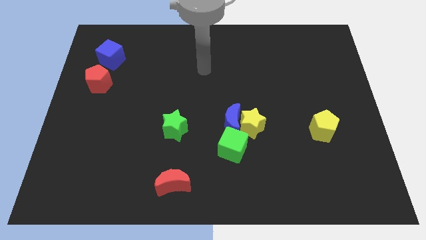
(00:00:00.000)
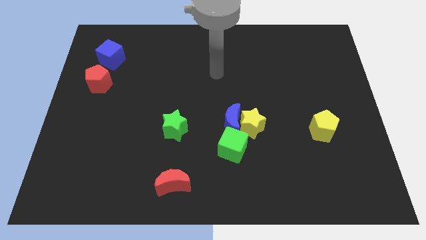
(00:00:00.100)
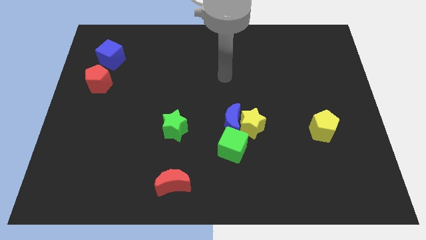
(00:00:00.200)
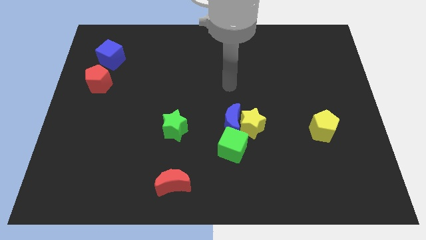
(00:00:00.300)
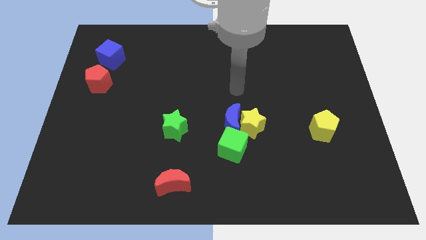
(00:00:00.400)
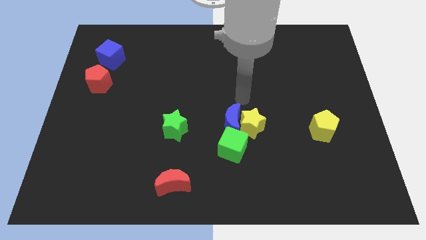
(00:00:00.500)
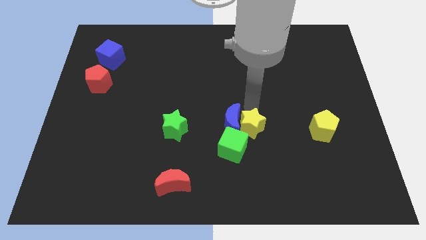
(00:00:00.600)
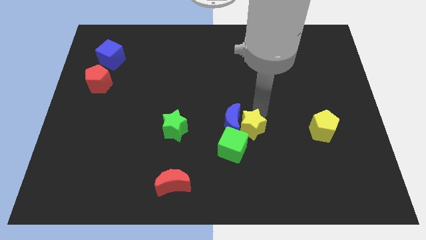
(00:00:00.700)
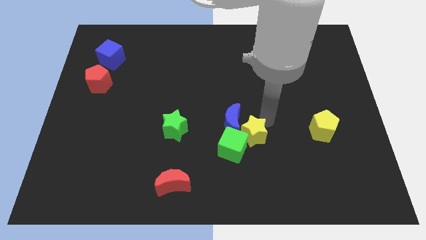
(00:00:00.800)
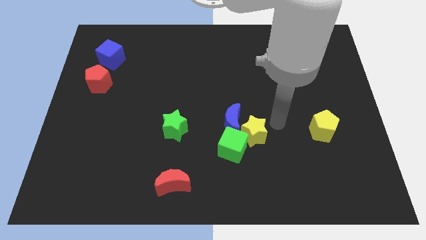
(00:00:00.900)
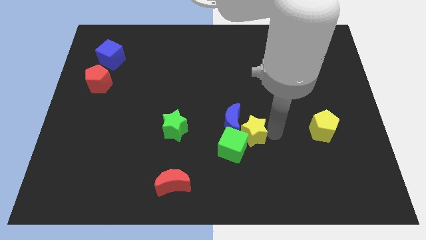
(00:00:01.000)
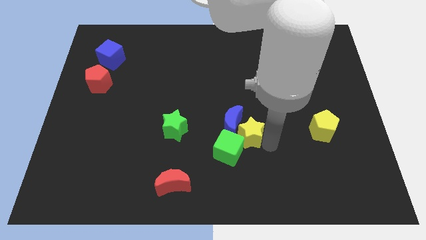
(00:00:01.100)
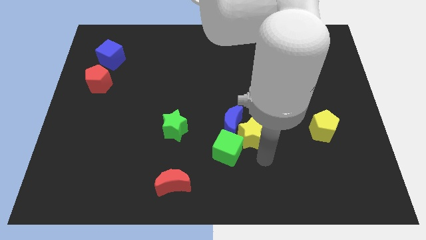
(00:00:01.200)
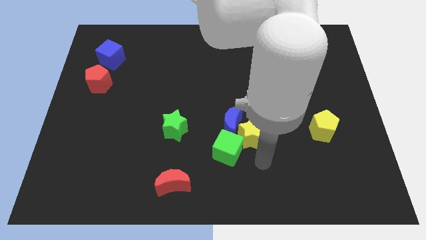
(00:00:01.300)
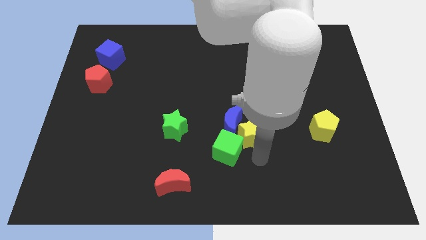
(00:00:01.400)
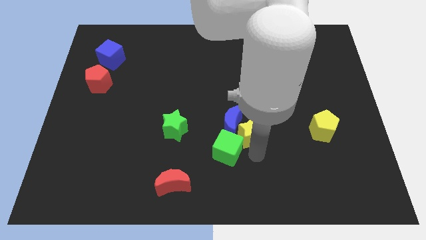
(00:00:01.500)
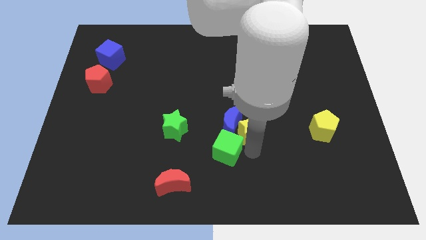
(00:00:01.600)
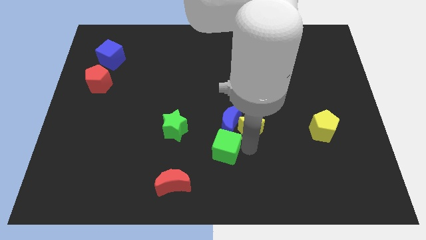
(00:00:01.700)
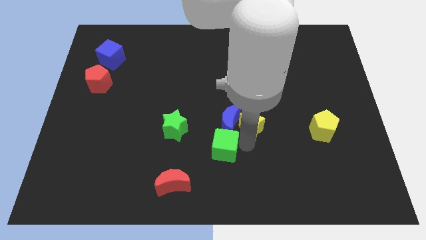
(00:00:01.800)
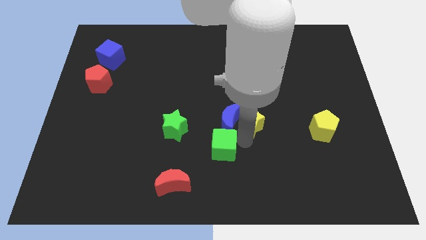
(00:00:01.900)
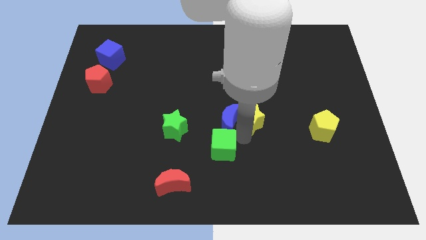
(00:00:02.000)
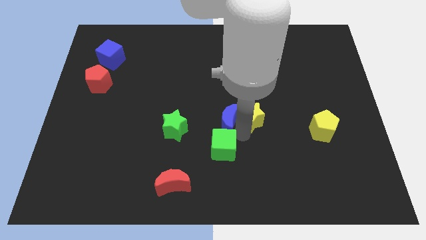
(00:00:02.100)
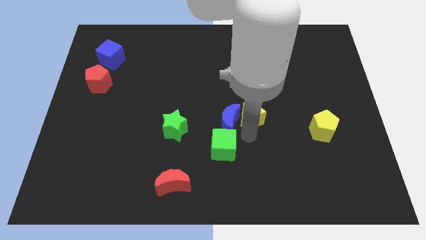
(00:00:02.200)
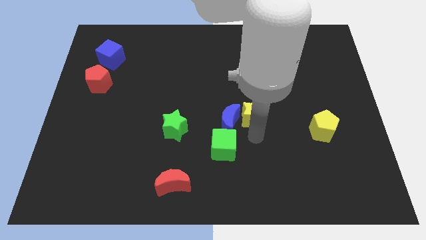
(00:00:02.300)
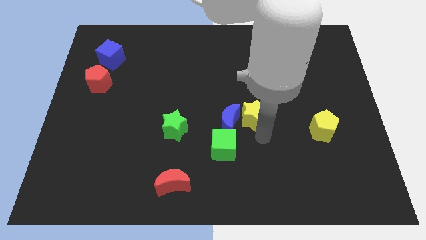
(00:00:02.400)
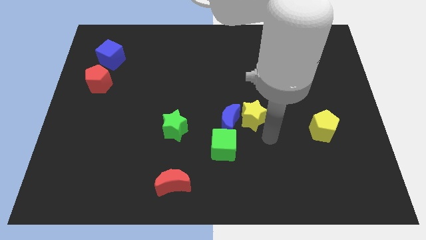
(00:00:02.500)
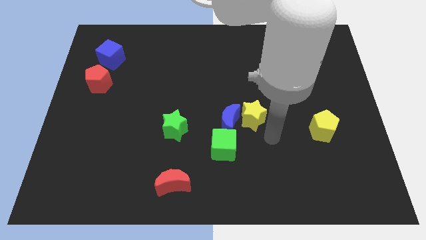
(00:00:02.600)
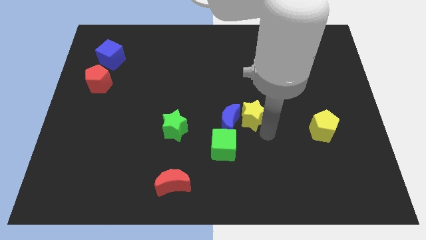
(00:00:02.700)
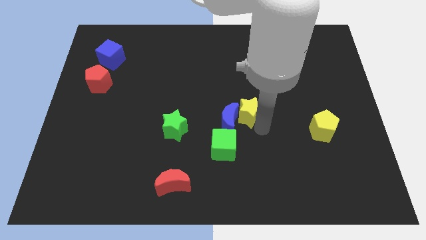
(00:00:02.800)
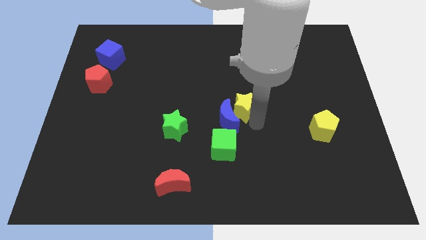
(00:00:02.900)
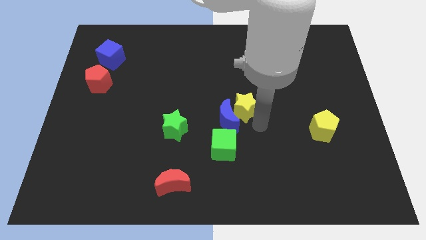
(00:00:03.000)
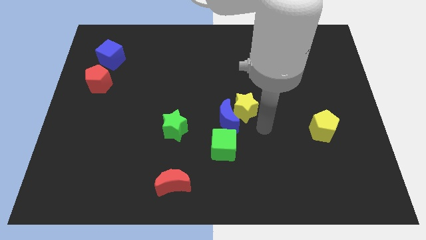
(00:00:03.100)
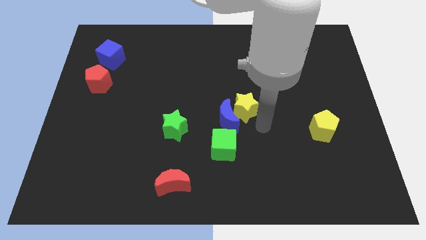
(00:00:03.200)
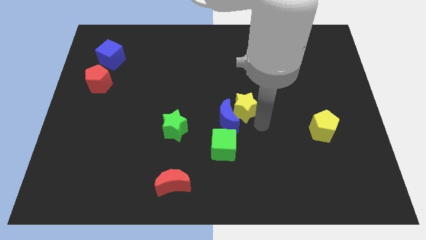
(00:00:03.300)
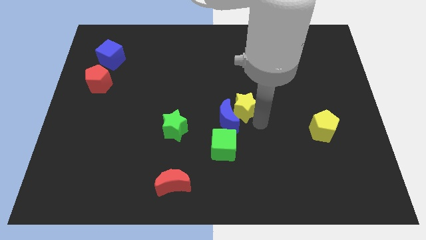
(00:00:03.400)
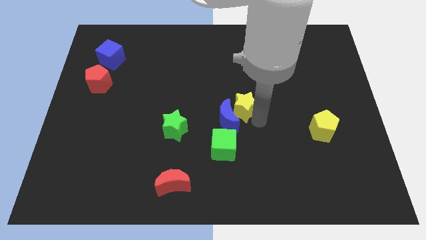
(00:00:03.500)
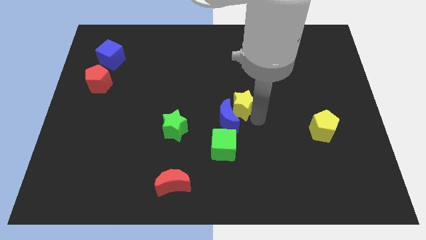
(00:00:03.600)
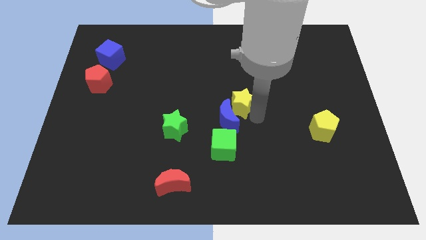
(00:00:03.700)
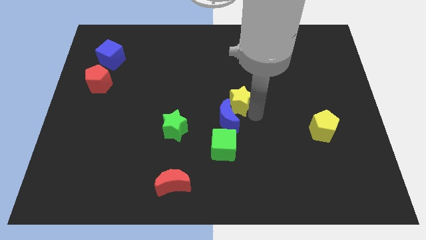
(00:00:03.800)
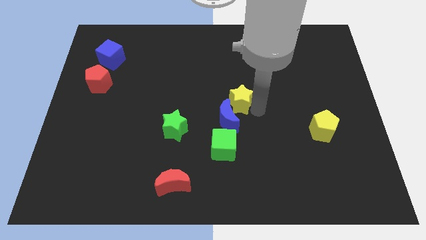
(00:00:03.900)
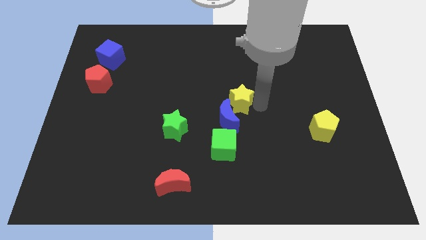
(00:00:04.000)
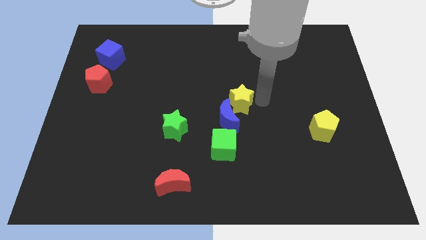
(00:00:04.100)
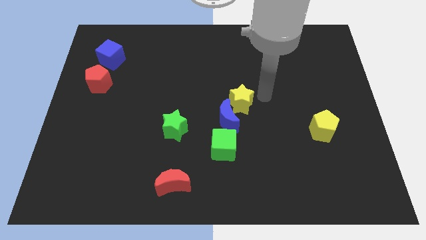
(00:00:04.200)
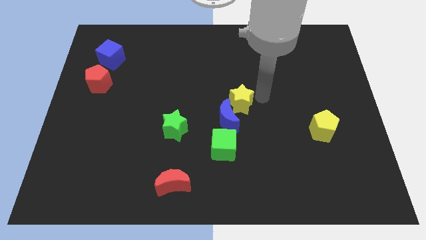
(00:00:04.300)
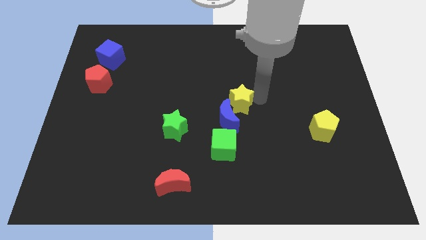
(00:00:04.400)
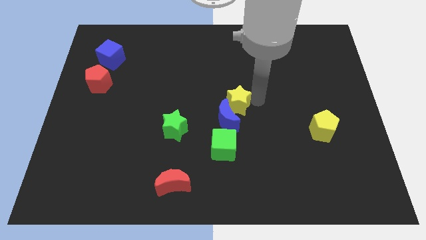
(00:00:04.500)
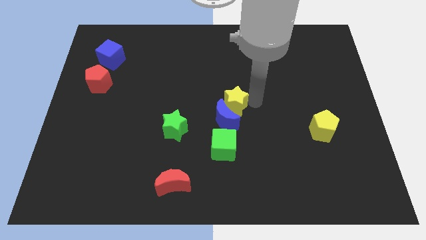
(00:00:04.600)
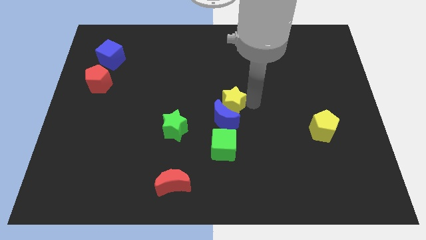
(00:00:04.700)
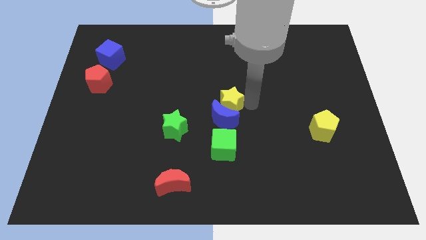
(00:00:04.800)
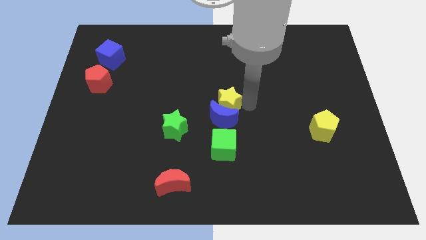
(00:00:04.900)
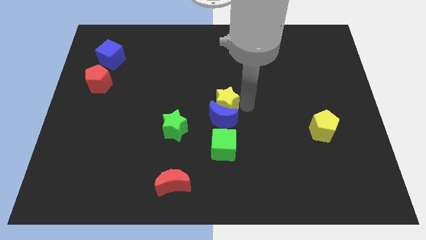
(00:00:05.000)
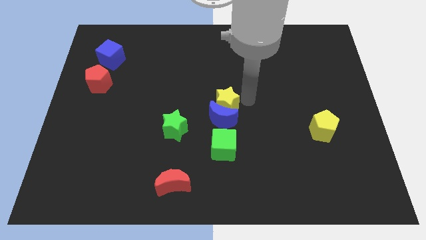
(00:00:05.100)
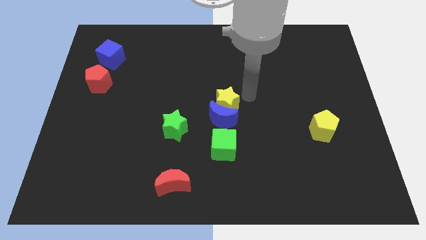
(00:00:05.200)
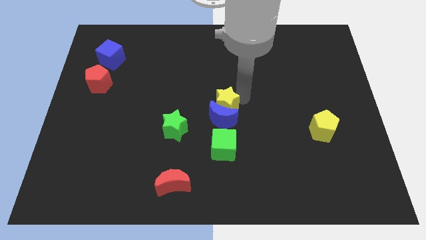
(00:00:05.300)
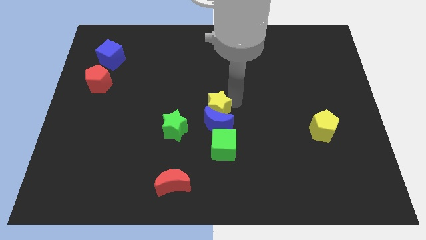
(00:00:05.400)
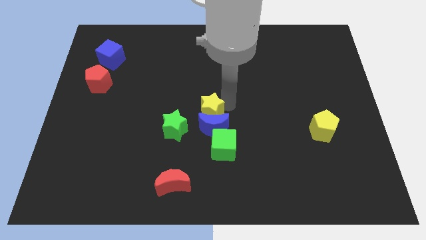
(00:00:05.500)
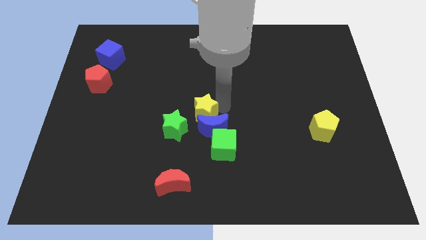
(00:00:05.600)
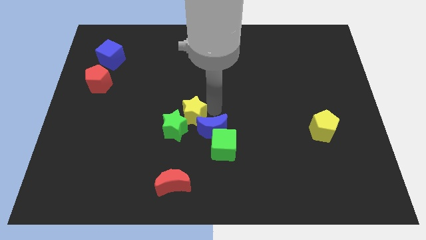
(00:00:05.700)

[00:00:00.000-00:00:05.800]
push the yellow star towards the green star

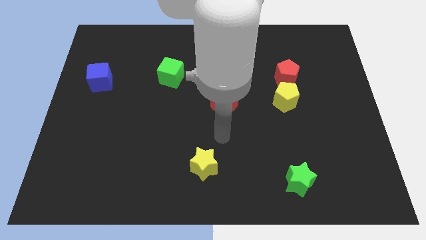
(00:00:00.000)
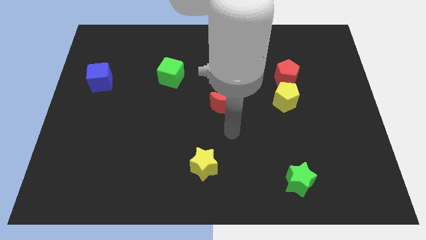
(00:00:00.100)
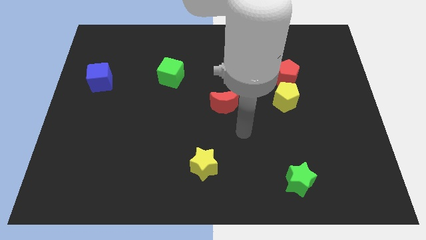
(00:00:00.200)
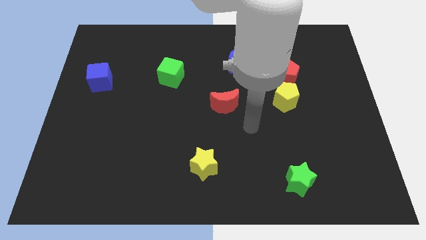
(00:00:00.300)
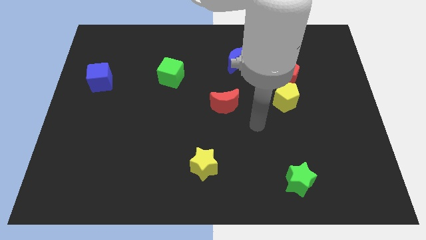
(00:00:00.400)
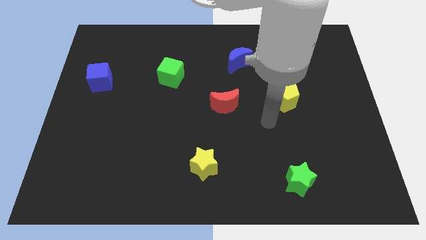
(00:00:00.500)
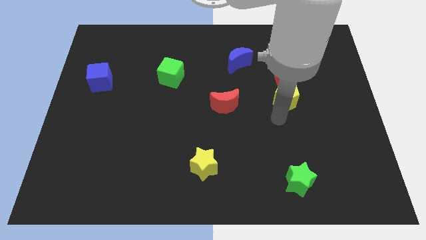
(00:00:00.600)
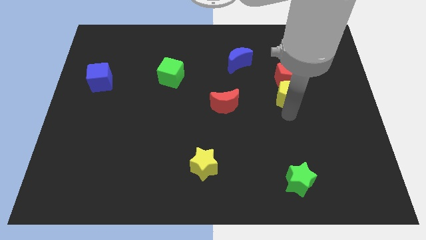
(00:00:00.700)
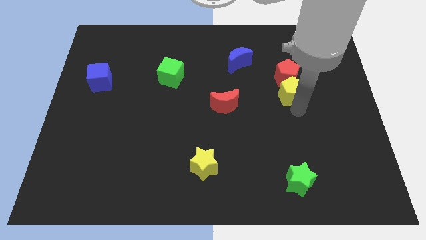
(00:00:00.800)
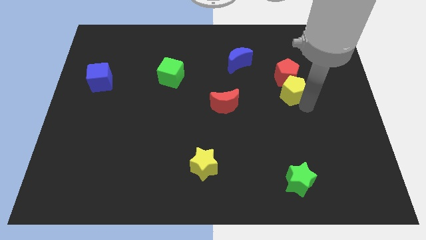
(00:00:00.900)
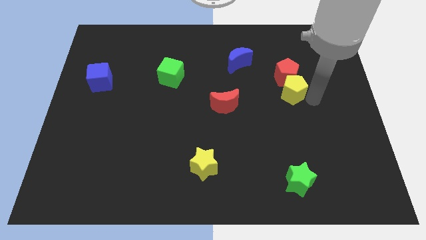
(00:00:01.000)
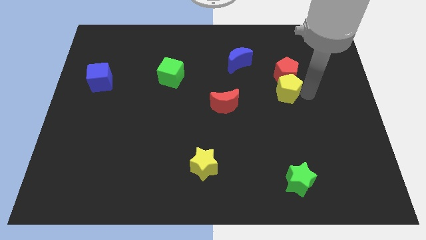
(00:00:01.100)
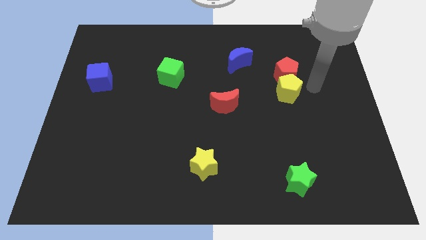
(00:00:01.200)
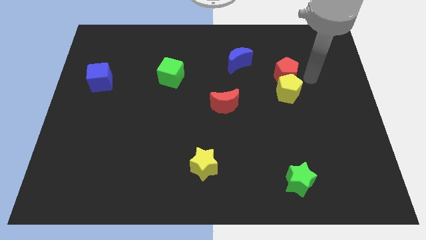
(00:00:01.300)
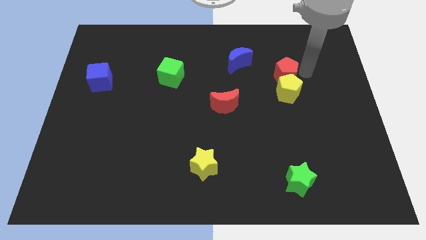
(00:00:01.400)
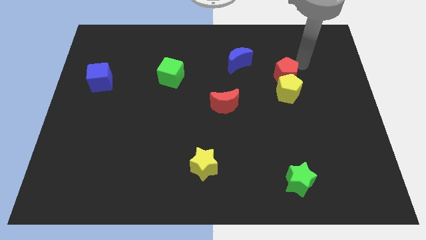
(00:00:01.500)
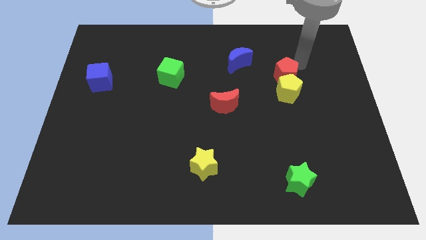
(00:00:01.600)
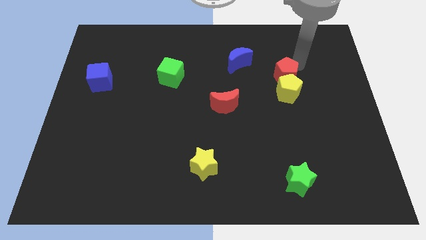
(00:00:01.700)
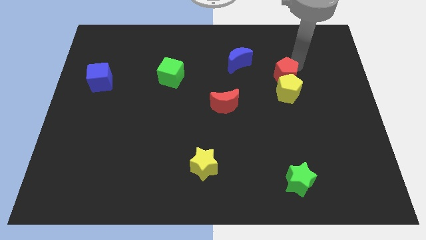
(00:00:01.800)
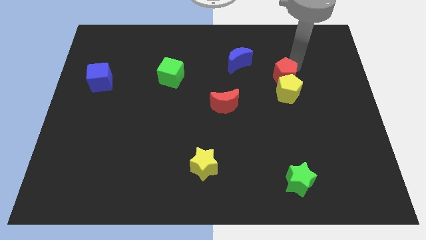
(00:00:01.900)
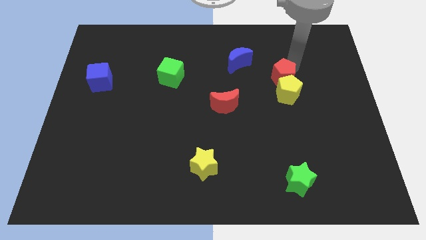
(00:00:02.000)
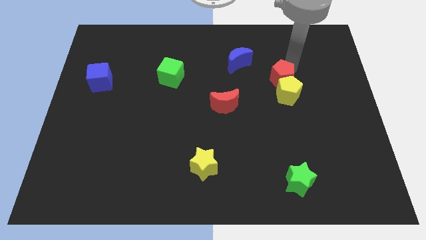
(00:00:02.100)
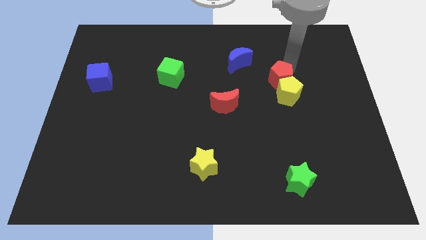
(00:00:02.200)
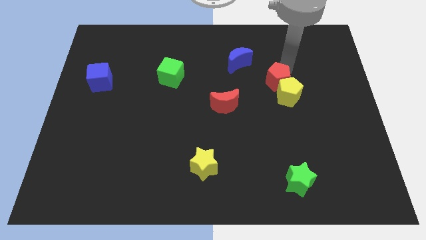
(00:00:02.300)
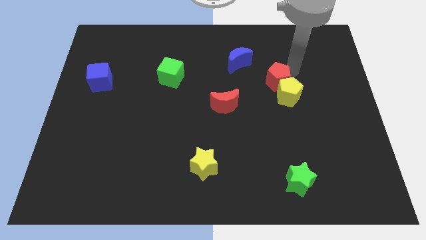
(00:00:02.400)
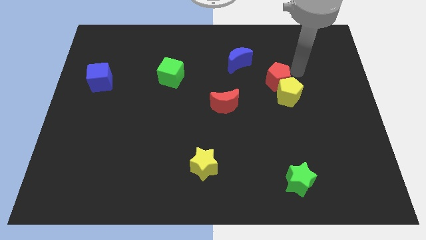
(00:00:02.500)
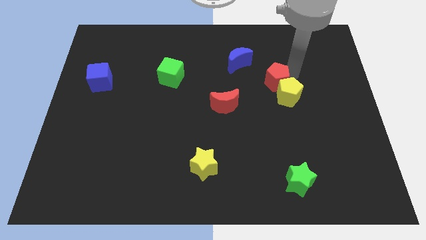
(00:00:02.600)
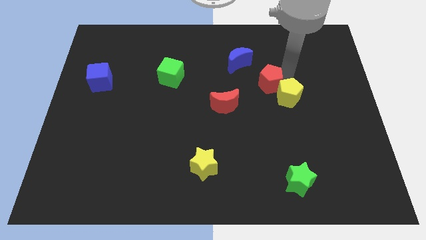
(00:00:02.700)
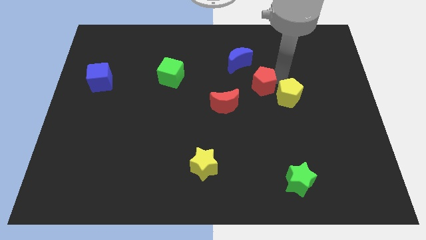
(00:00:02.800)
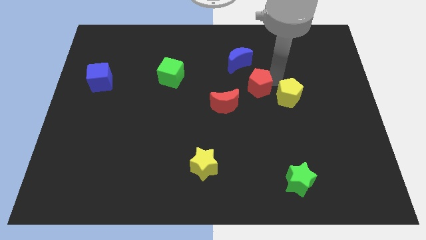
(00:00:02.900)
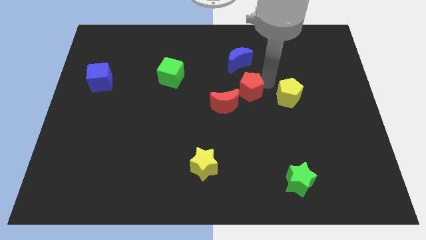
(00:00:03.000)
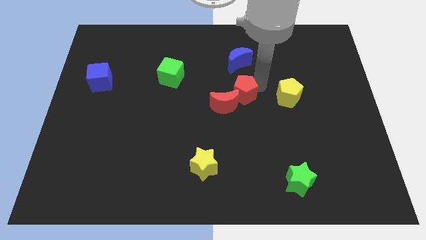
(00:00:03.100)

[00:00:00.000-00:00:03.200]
move the red pentagon next to the red moon
